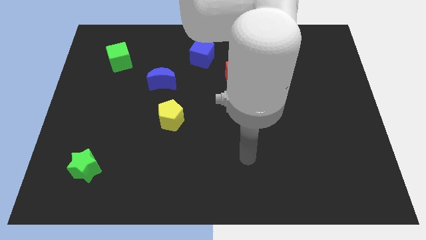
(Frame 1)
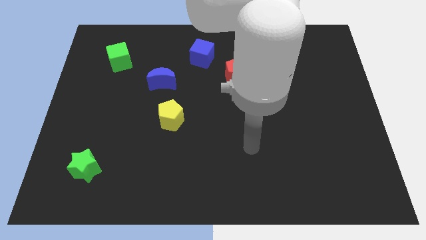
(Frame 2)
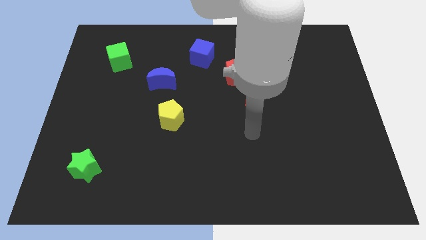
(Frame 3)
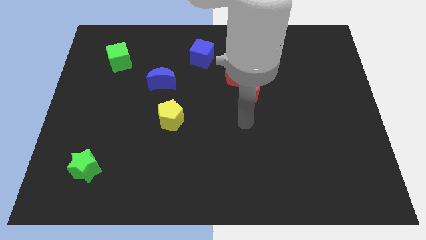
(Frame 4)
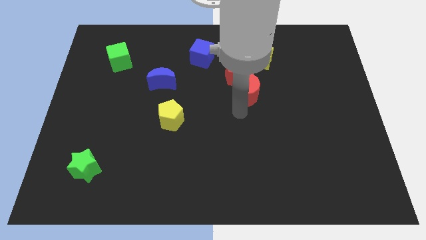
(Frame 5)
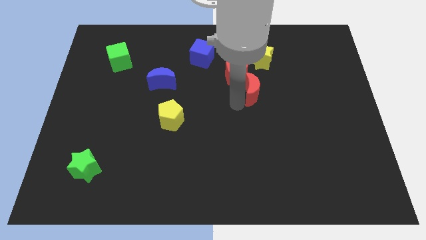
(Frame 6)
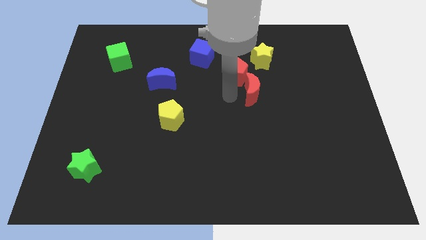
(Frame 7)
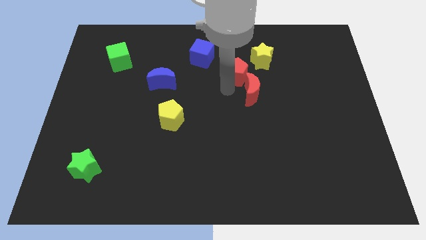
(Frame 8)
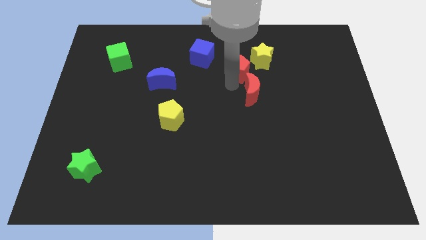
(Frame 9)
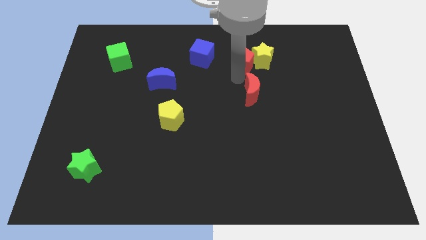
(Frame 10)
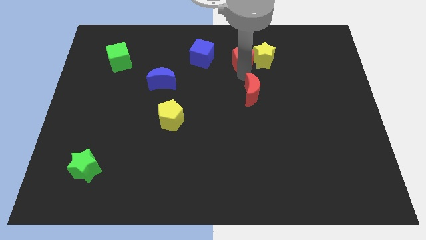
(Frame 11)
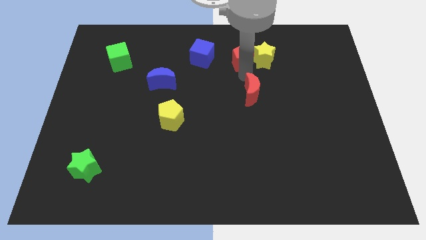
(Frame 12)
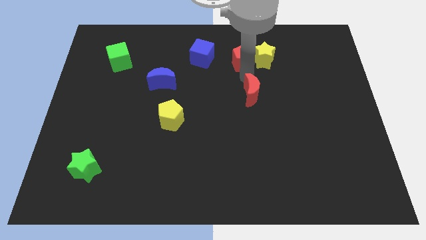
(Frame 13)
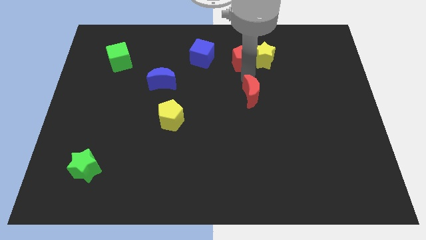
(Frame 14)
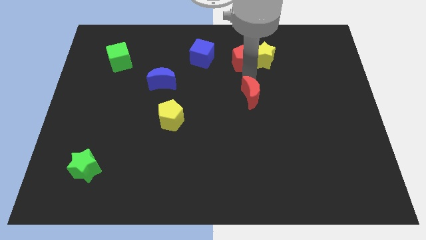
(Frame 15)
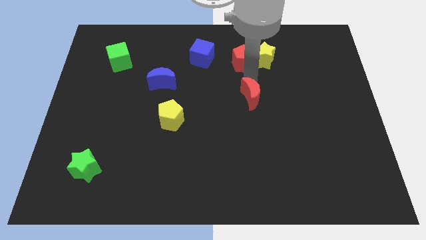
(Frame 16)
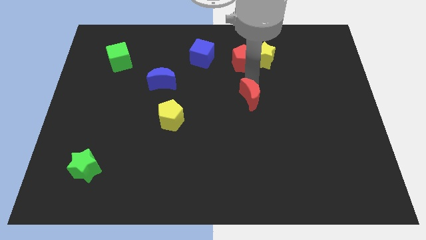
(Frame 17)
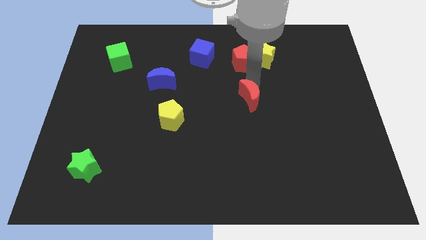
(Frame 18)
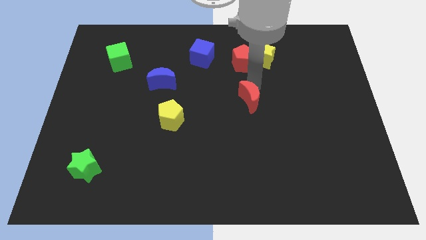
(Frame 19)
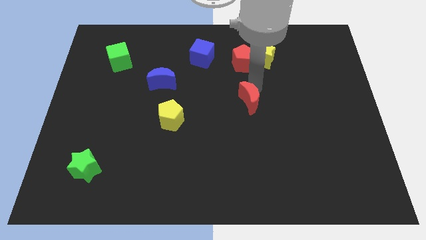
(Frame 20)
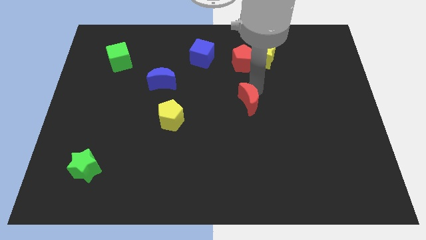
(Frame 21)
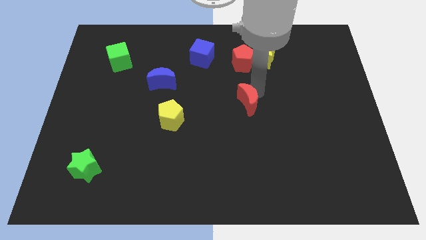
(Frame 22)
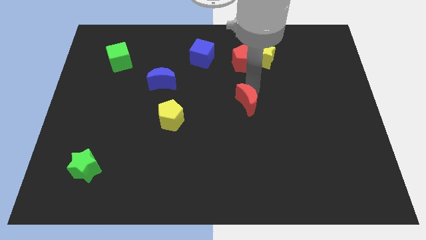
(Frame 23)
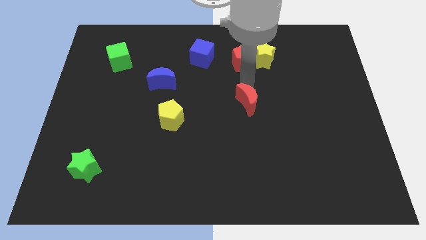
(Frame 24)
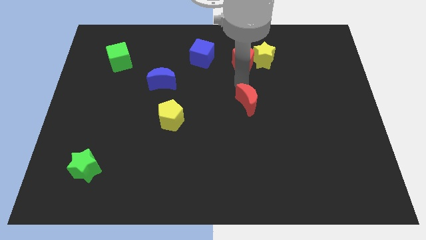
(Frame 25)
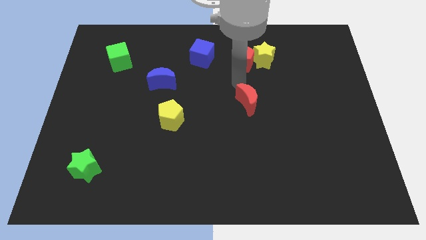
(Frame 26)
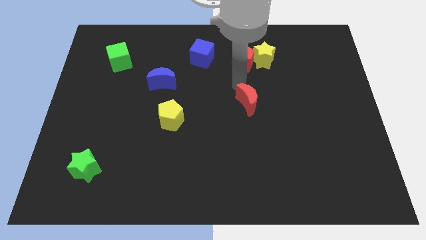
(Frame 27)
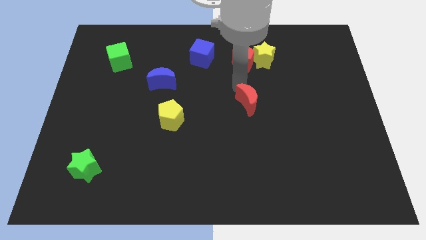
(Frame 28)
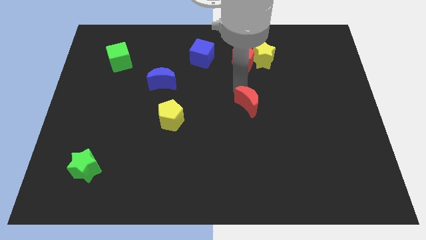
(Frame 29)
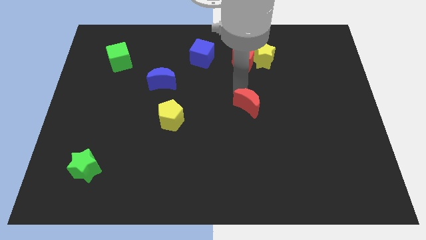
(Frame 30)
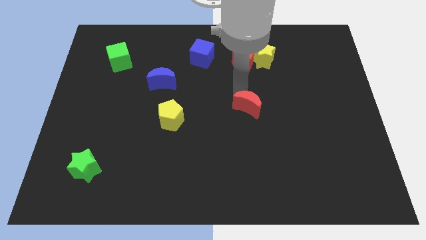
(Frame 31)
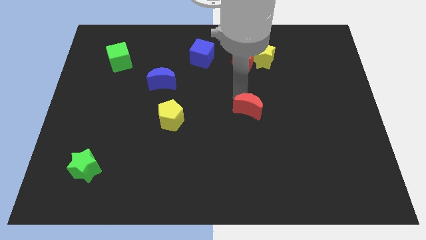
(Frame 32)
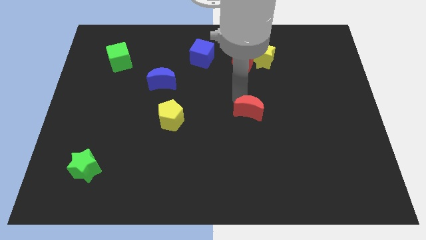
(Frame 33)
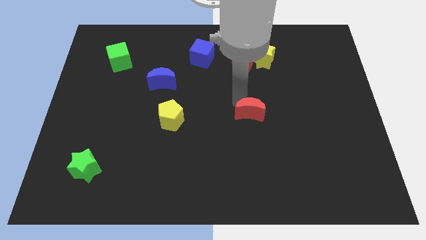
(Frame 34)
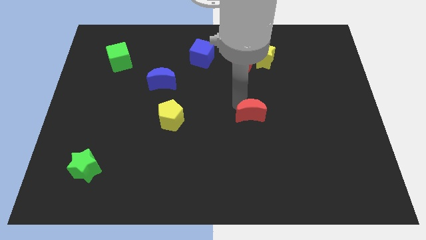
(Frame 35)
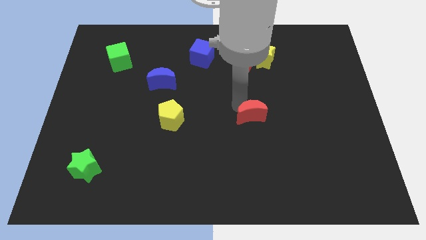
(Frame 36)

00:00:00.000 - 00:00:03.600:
slightly move the red moon downwards

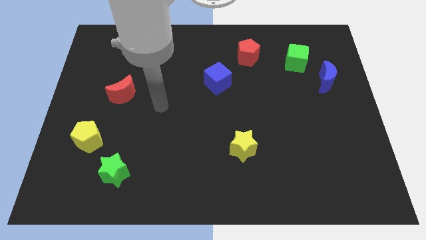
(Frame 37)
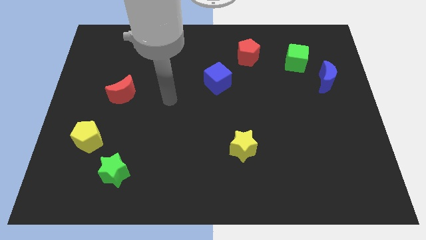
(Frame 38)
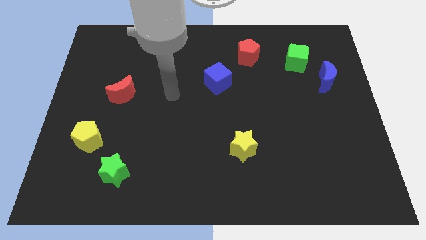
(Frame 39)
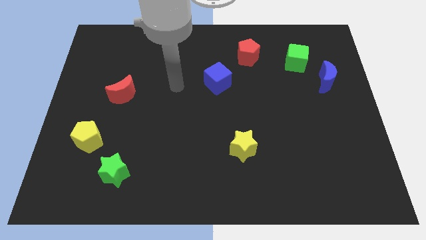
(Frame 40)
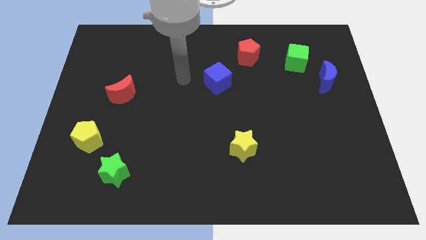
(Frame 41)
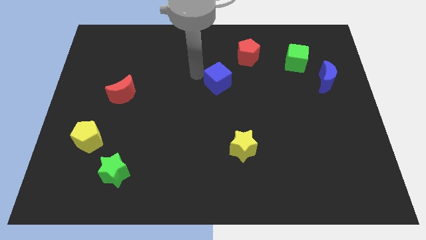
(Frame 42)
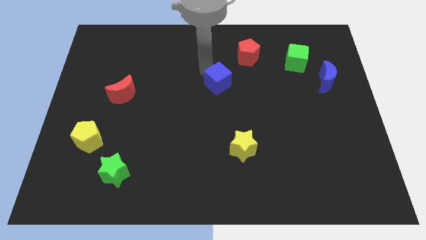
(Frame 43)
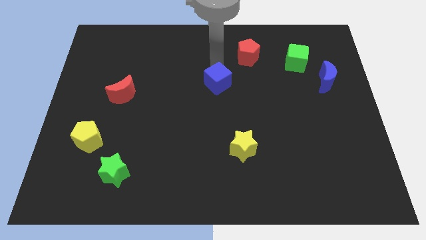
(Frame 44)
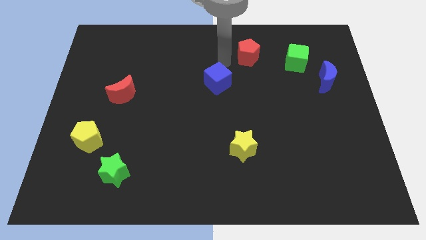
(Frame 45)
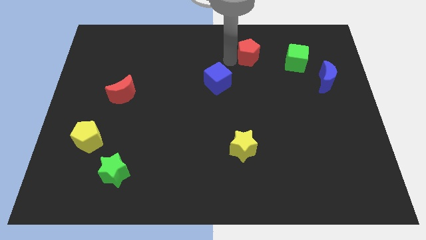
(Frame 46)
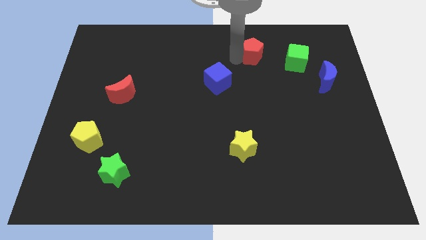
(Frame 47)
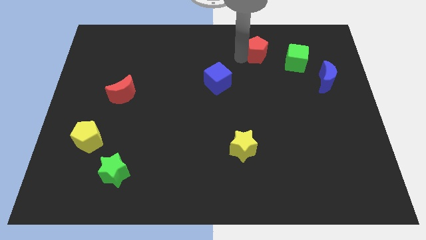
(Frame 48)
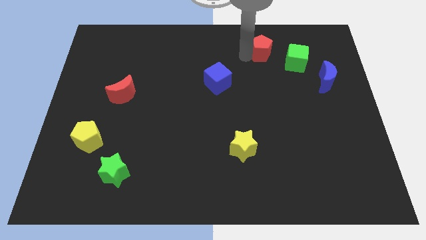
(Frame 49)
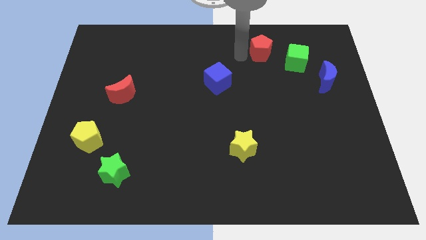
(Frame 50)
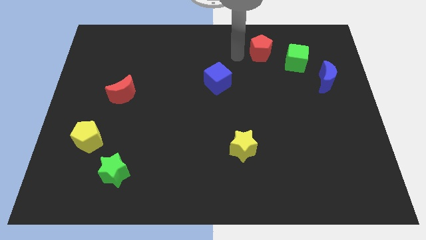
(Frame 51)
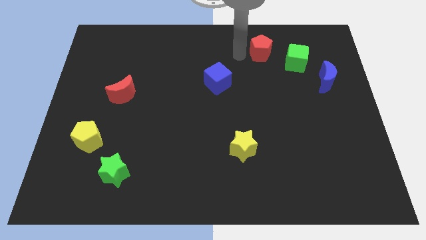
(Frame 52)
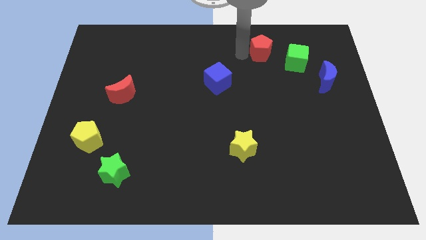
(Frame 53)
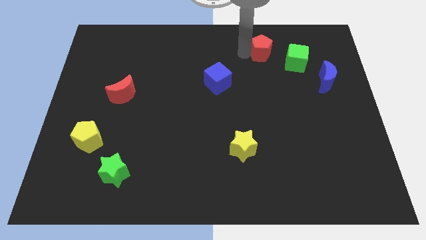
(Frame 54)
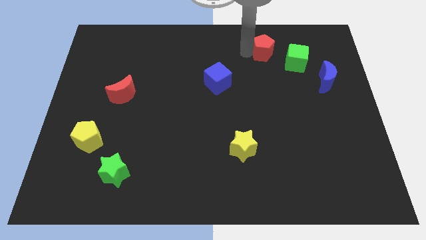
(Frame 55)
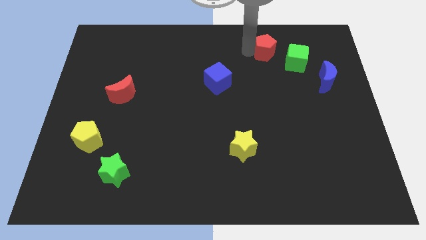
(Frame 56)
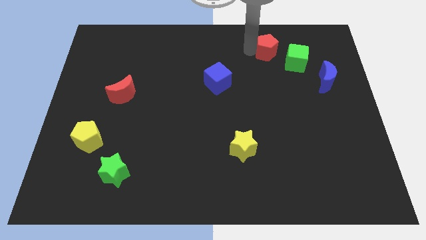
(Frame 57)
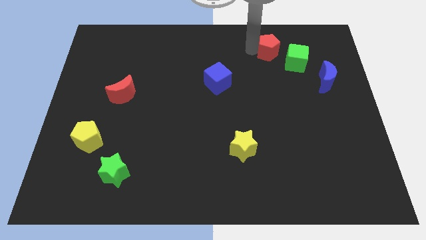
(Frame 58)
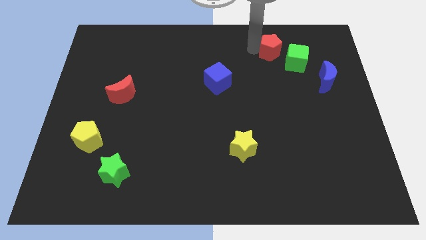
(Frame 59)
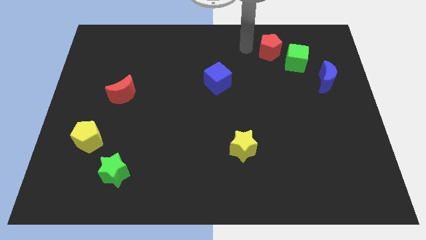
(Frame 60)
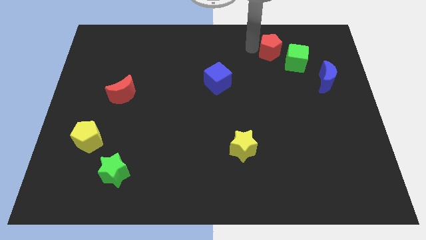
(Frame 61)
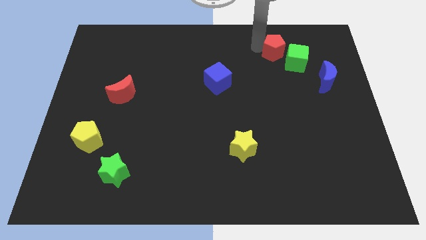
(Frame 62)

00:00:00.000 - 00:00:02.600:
slightly move the red pentagon right

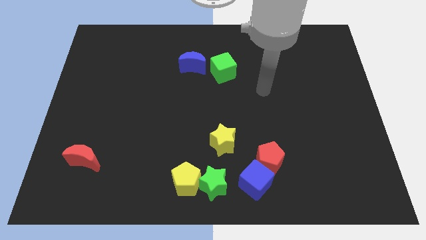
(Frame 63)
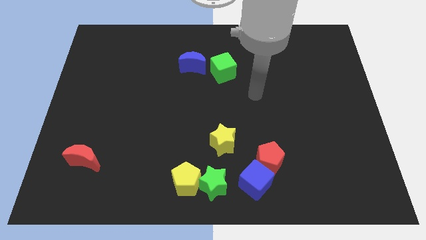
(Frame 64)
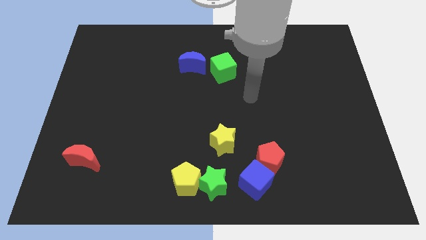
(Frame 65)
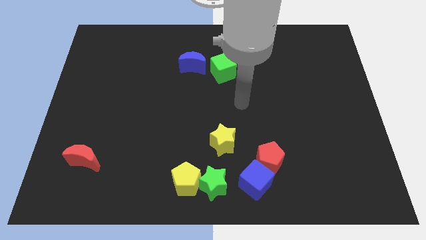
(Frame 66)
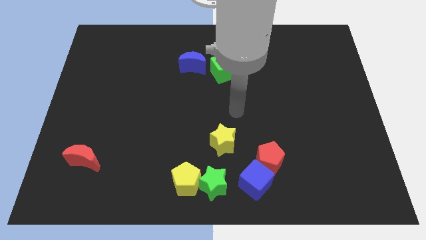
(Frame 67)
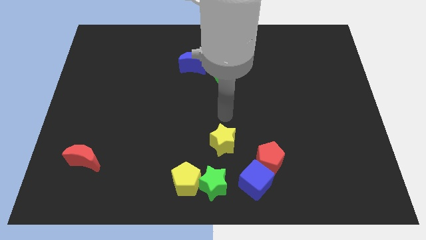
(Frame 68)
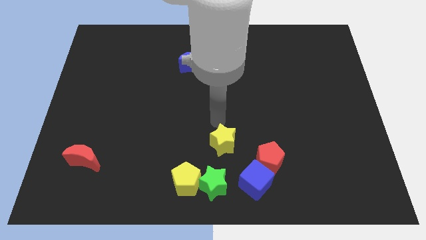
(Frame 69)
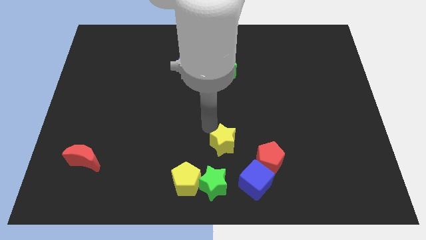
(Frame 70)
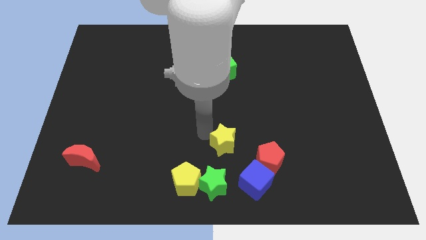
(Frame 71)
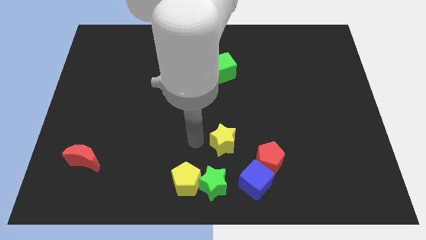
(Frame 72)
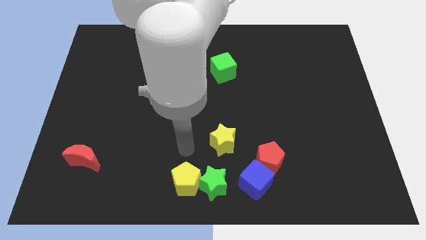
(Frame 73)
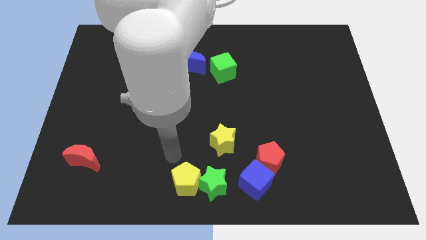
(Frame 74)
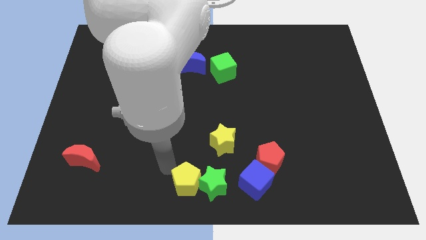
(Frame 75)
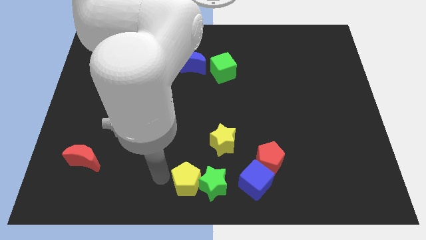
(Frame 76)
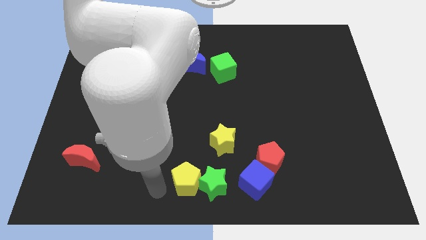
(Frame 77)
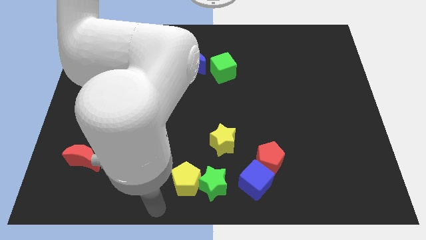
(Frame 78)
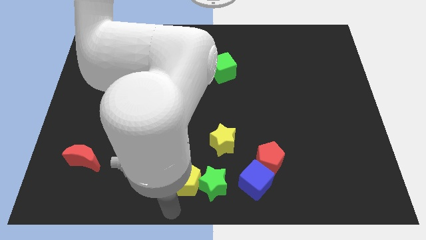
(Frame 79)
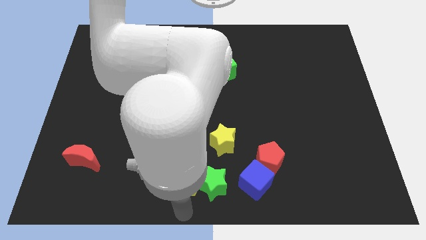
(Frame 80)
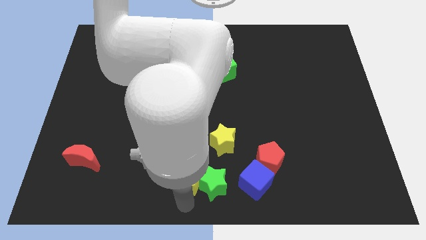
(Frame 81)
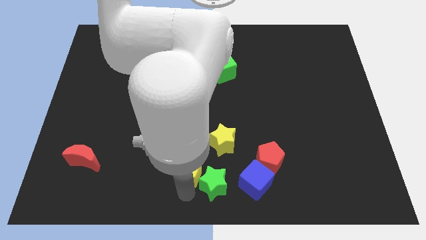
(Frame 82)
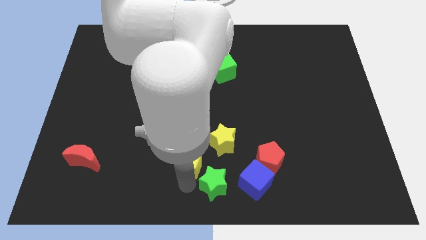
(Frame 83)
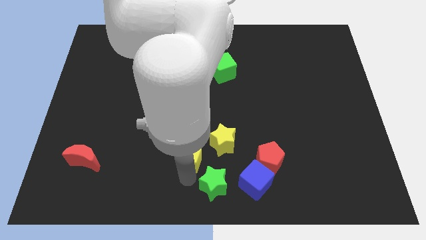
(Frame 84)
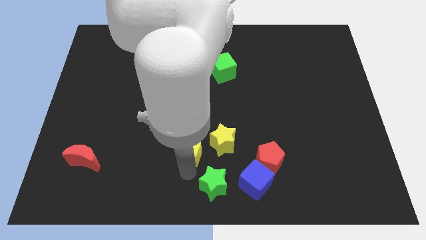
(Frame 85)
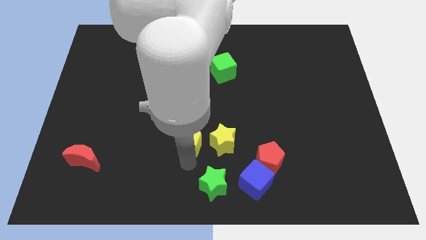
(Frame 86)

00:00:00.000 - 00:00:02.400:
slightly slide the yellow pentagon upwards
